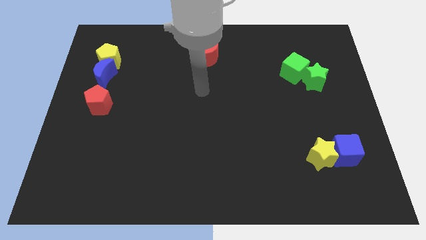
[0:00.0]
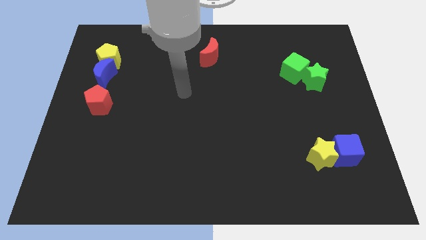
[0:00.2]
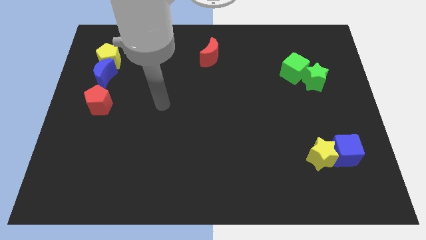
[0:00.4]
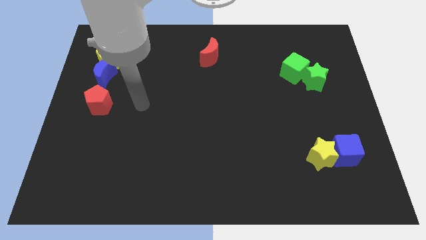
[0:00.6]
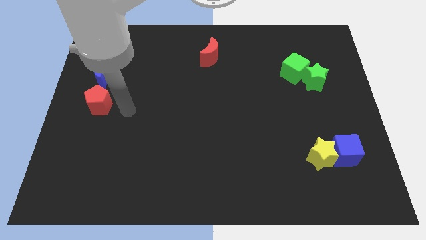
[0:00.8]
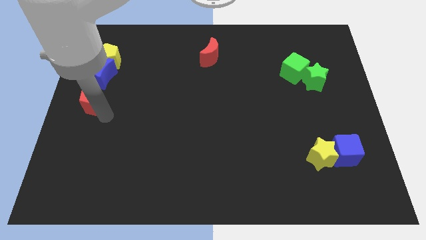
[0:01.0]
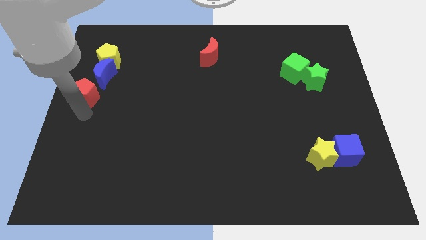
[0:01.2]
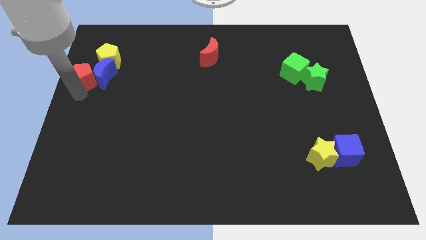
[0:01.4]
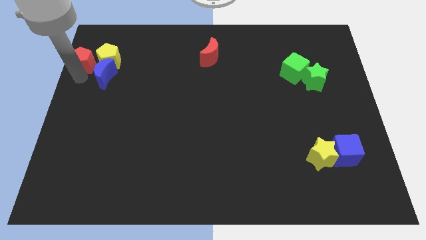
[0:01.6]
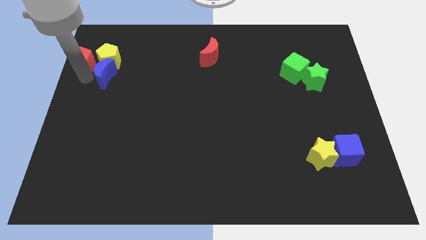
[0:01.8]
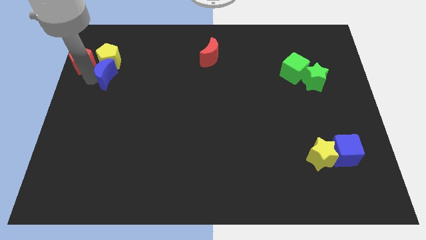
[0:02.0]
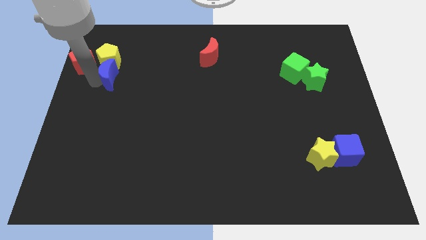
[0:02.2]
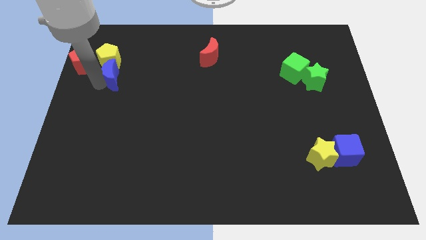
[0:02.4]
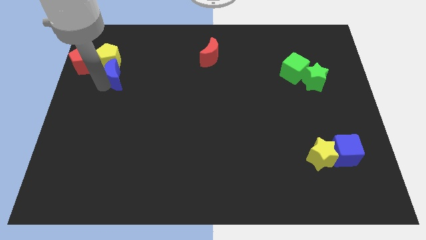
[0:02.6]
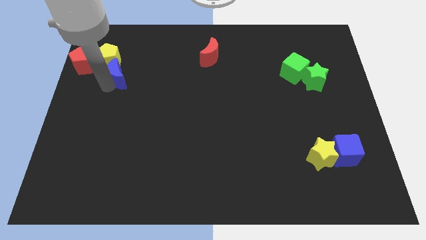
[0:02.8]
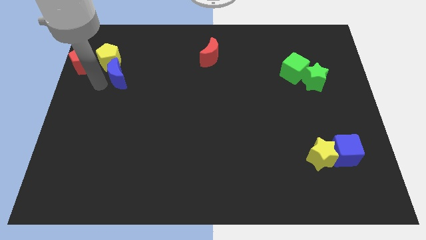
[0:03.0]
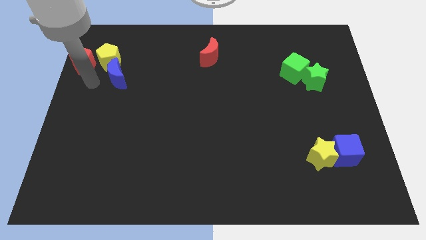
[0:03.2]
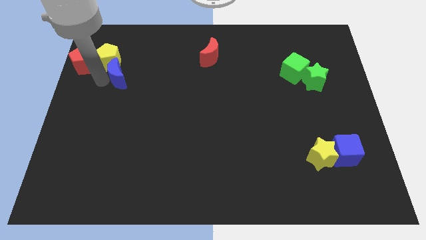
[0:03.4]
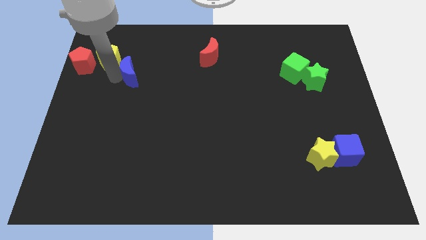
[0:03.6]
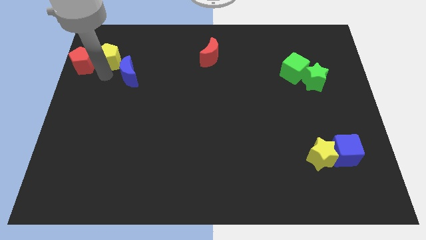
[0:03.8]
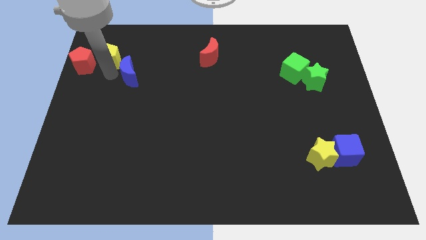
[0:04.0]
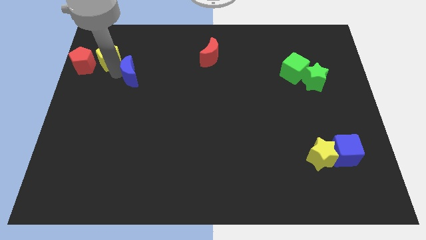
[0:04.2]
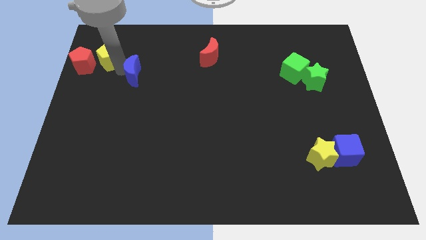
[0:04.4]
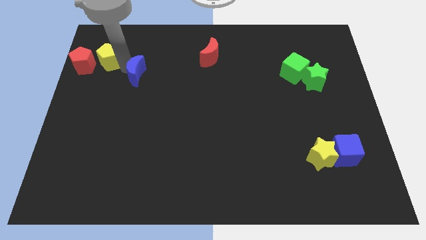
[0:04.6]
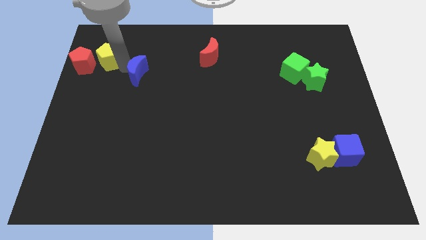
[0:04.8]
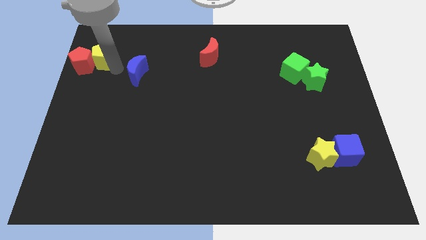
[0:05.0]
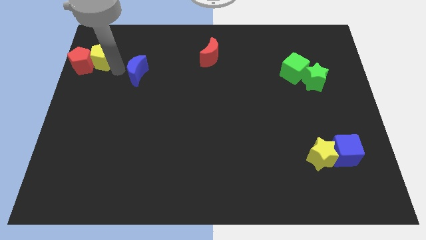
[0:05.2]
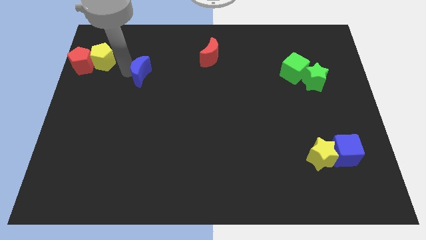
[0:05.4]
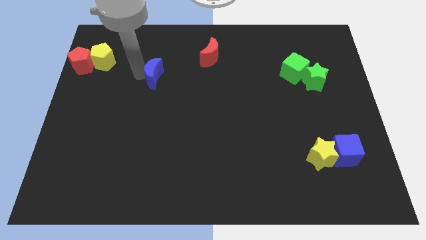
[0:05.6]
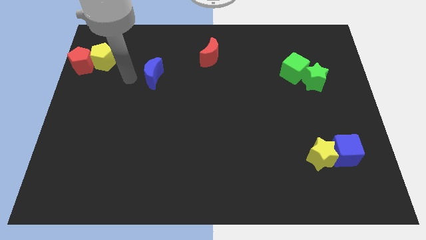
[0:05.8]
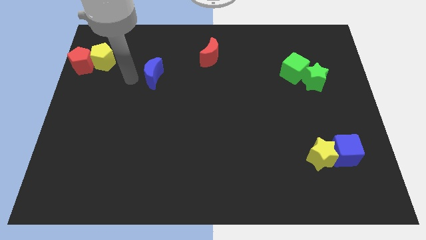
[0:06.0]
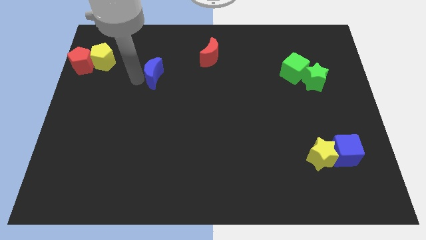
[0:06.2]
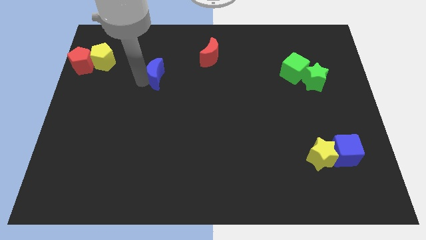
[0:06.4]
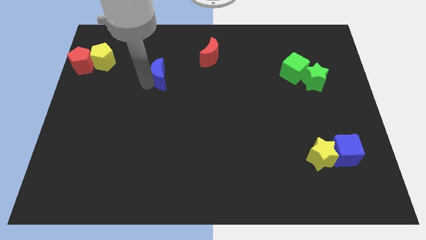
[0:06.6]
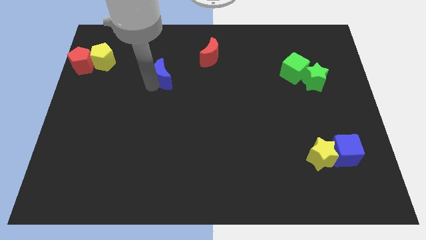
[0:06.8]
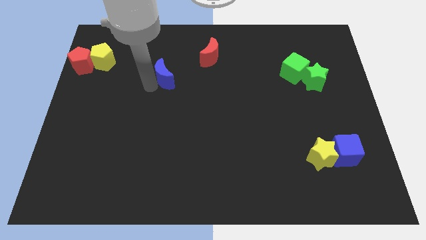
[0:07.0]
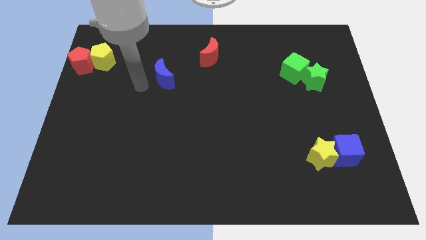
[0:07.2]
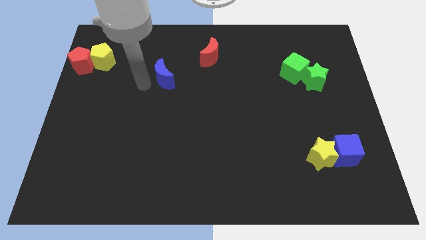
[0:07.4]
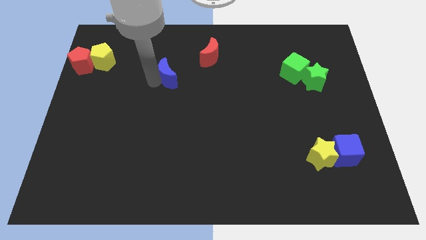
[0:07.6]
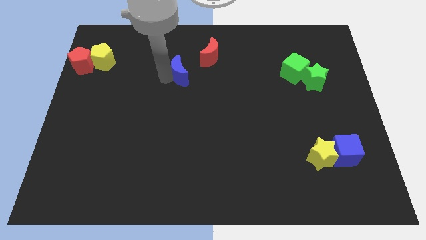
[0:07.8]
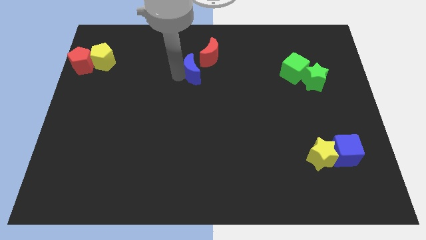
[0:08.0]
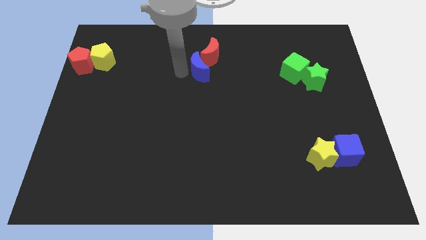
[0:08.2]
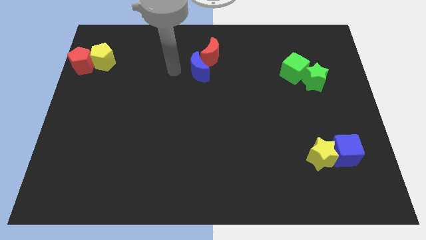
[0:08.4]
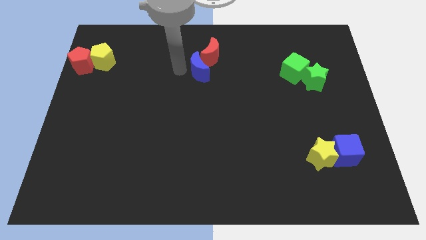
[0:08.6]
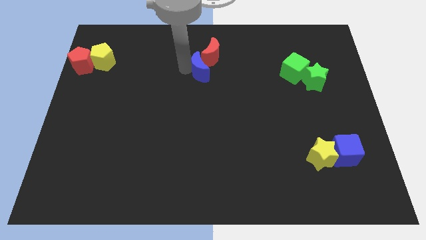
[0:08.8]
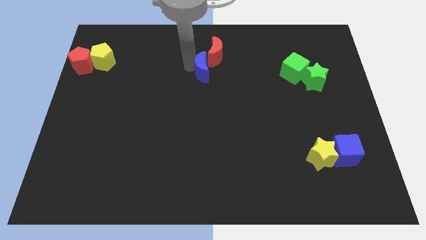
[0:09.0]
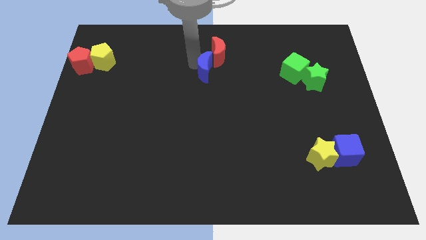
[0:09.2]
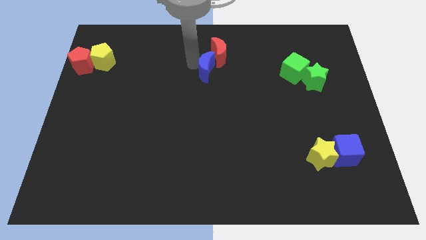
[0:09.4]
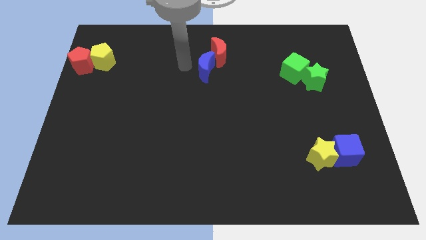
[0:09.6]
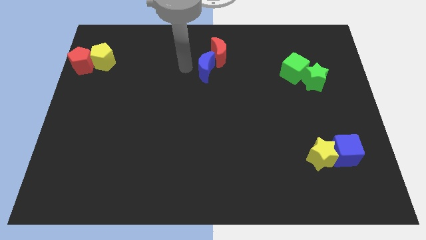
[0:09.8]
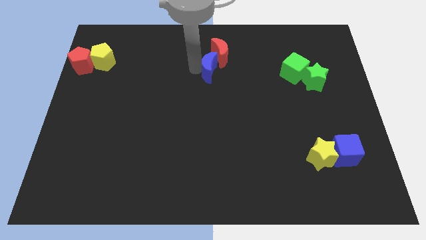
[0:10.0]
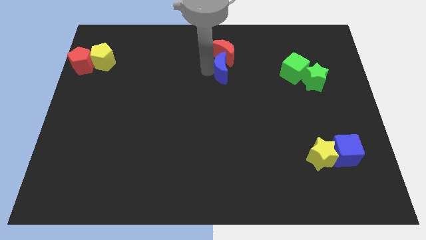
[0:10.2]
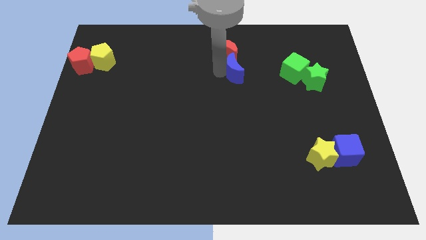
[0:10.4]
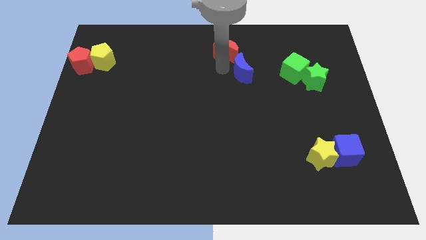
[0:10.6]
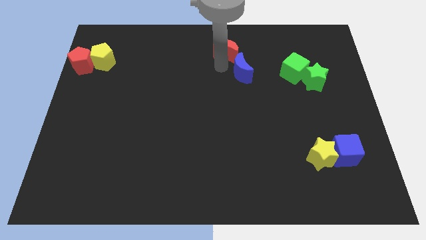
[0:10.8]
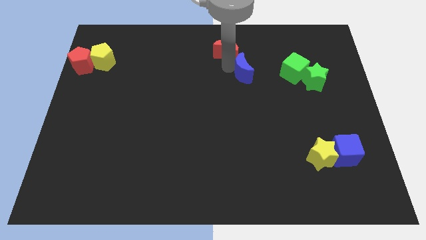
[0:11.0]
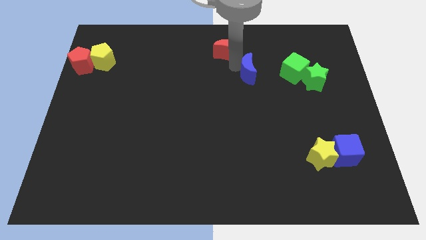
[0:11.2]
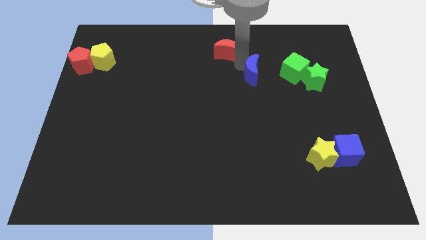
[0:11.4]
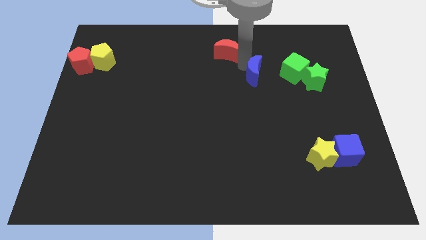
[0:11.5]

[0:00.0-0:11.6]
put the blue moon to the left side of the green star

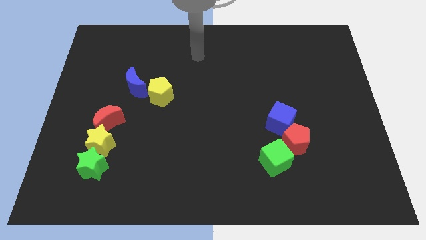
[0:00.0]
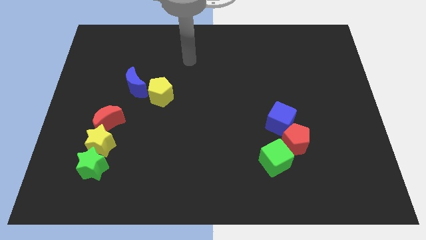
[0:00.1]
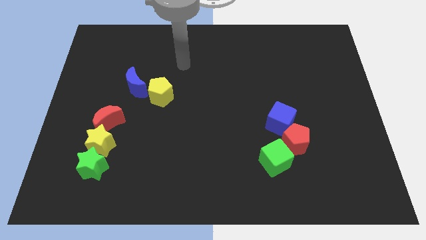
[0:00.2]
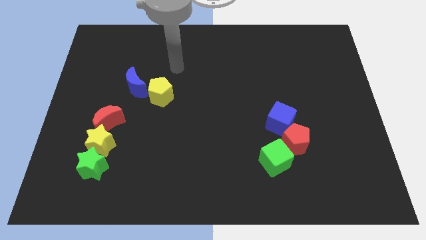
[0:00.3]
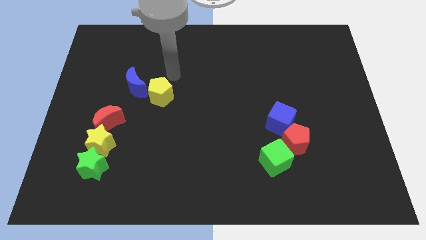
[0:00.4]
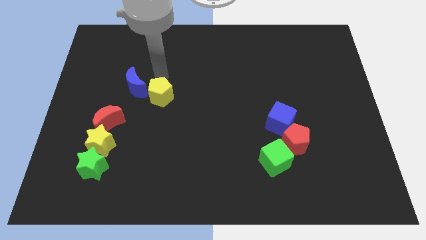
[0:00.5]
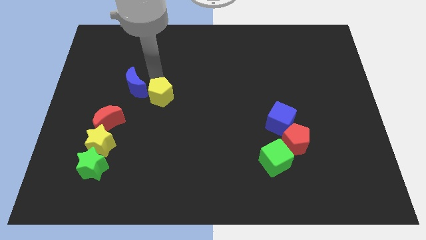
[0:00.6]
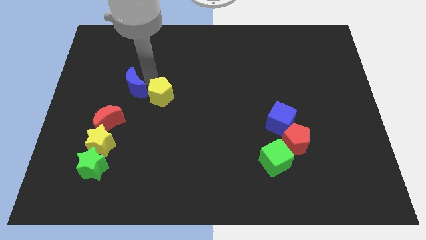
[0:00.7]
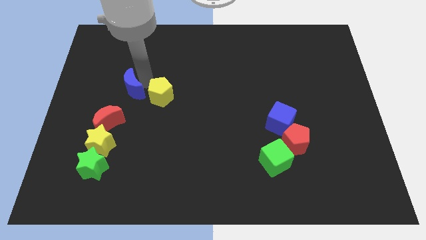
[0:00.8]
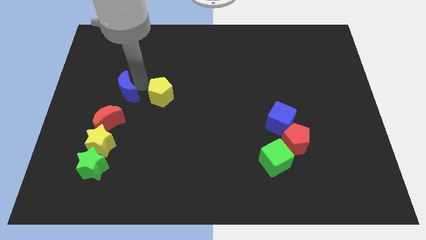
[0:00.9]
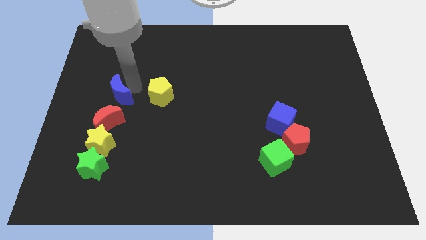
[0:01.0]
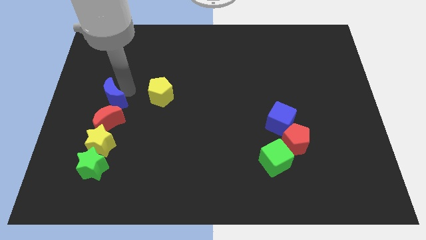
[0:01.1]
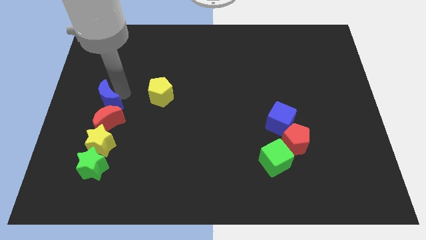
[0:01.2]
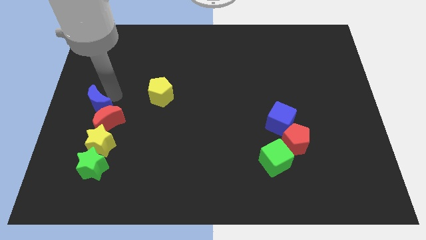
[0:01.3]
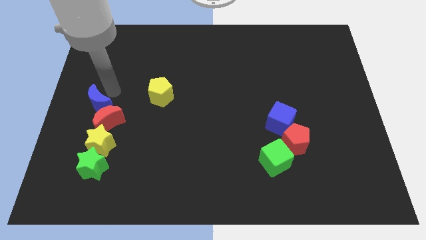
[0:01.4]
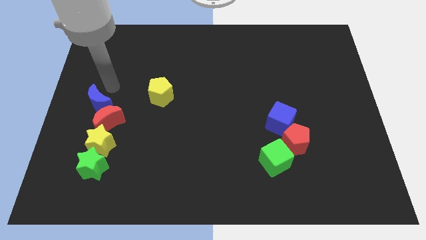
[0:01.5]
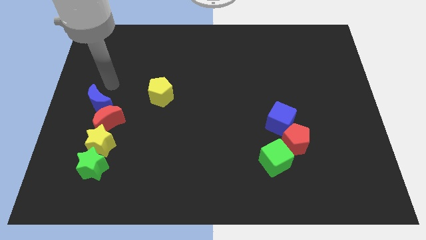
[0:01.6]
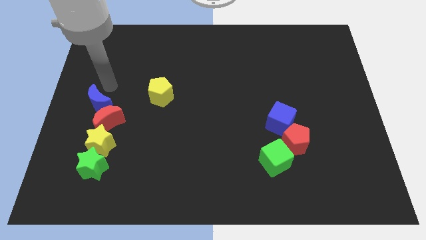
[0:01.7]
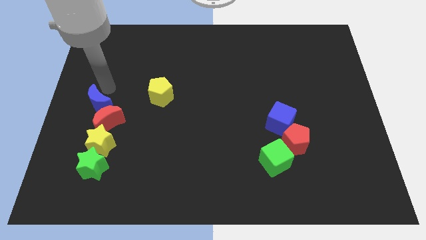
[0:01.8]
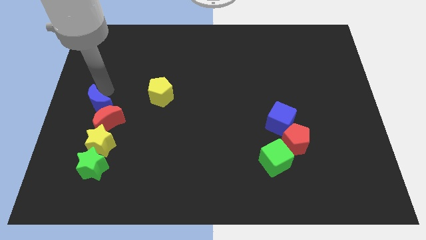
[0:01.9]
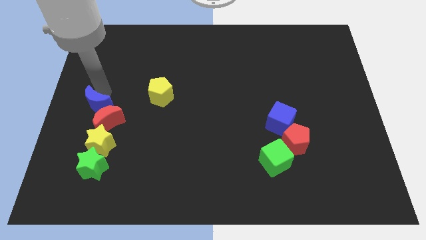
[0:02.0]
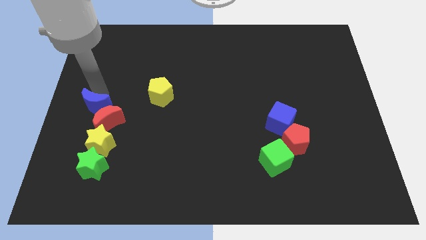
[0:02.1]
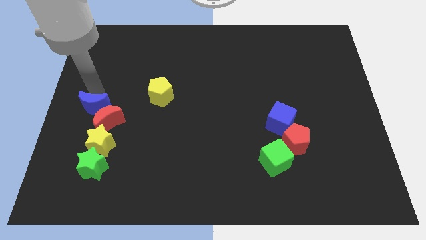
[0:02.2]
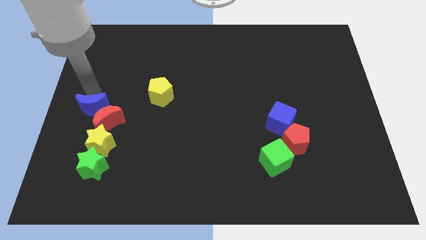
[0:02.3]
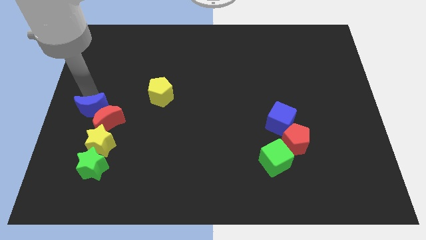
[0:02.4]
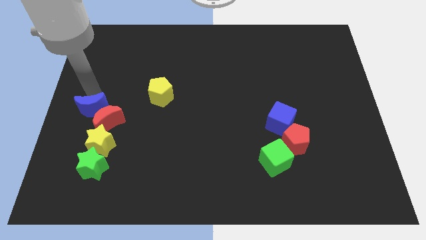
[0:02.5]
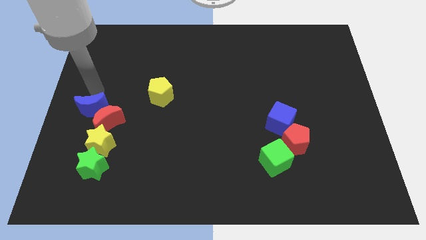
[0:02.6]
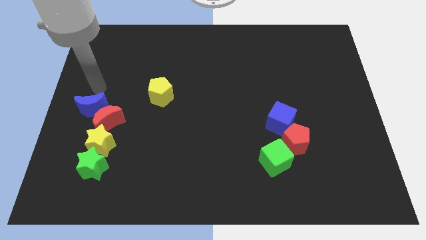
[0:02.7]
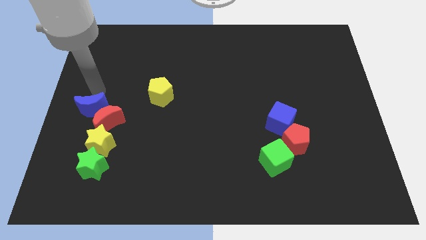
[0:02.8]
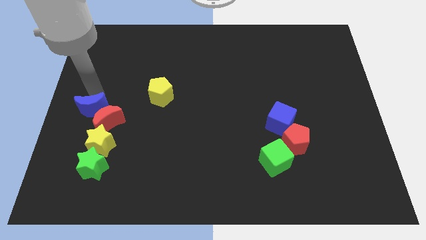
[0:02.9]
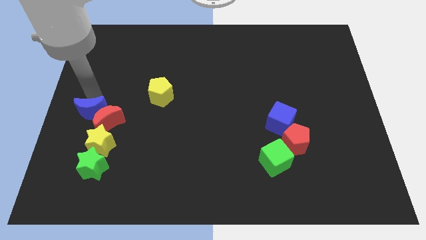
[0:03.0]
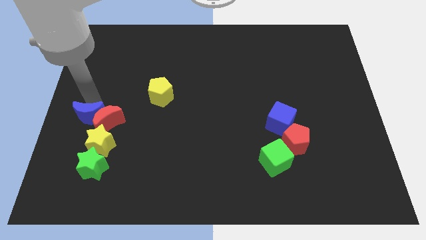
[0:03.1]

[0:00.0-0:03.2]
move the blue moon to the bottom left of the red moon
